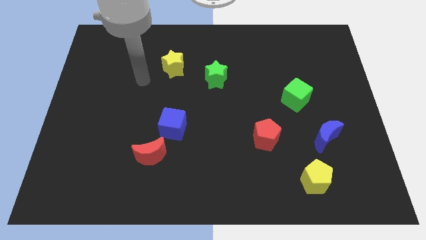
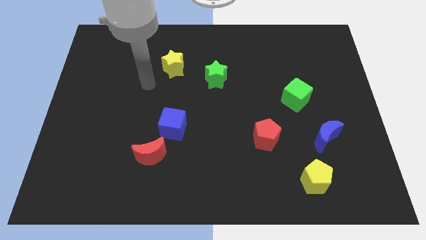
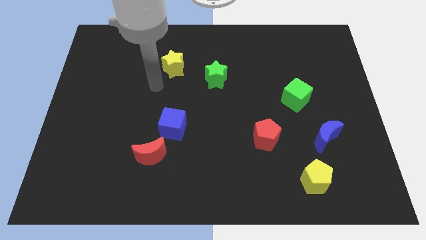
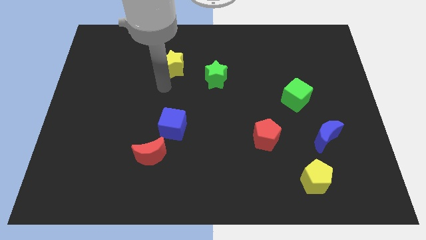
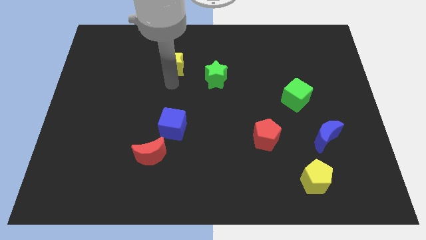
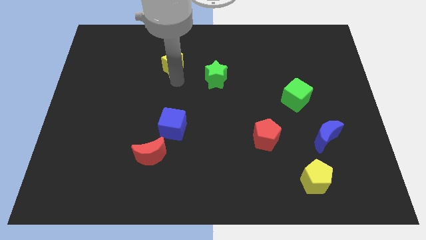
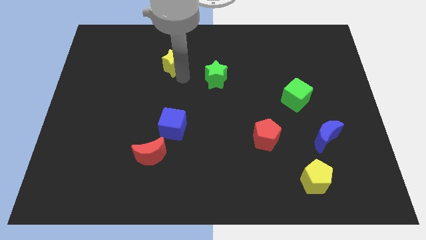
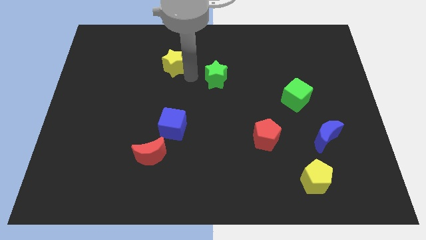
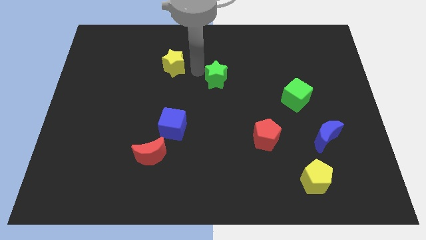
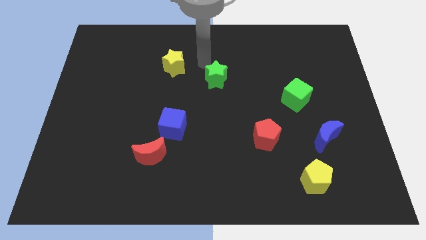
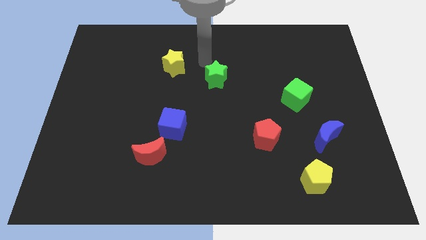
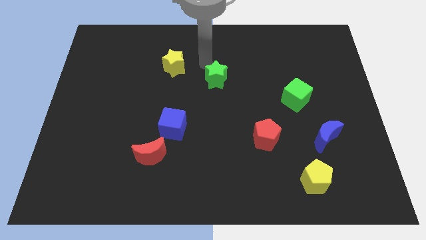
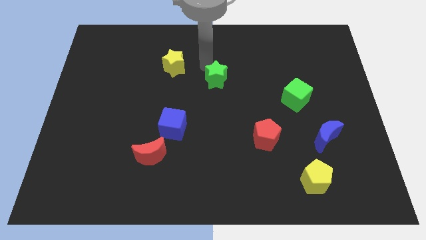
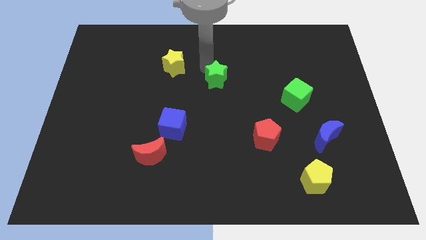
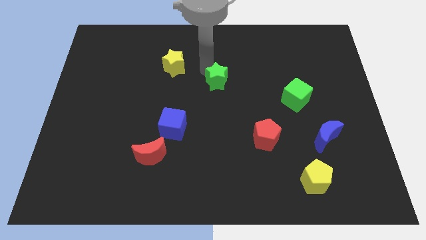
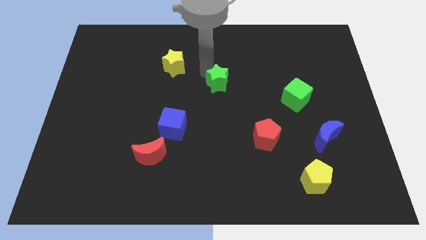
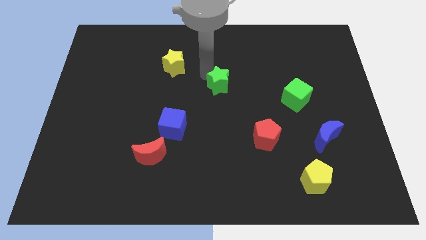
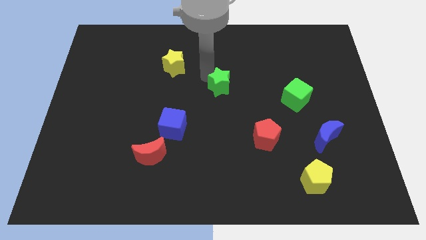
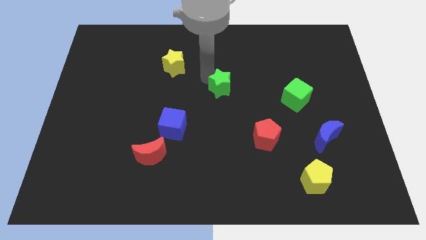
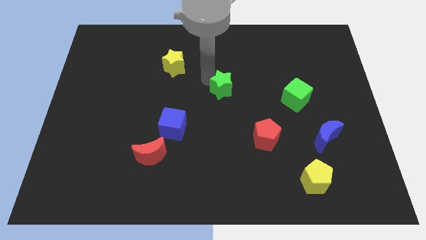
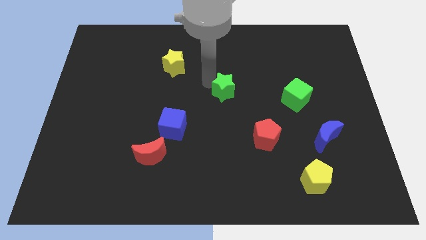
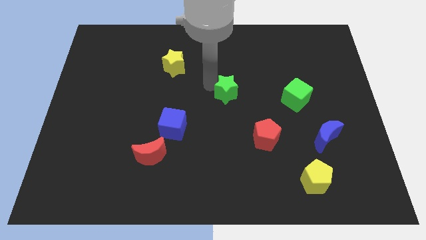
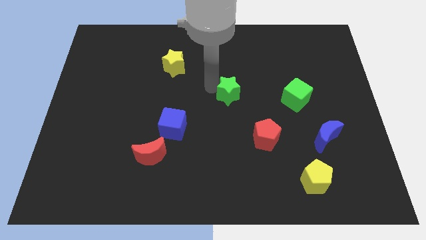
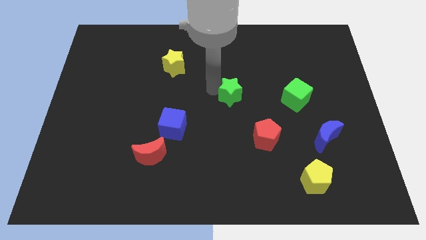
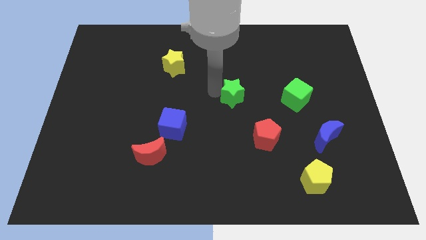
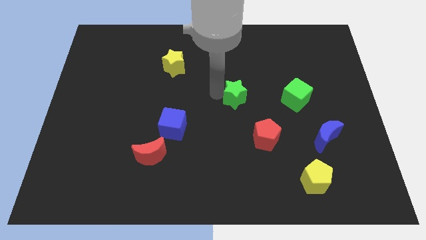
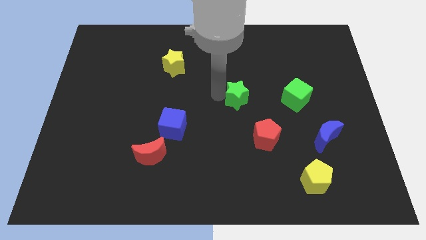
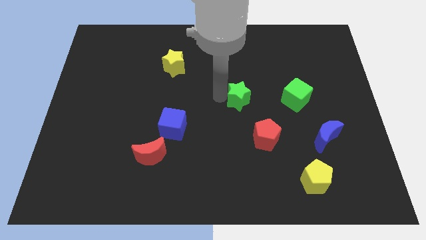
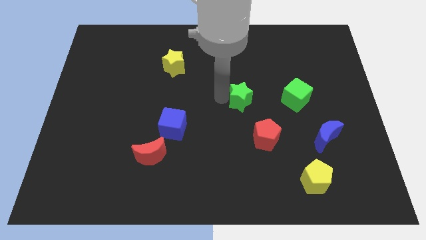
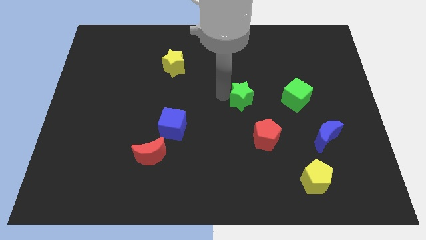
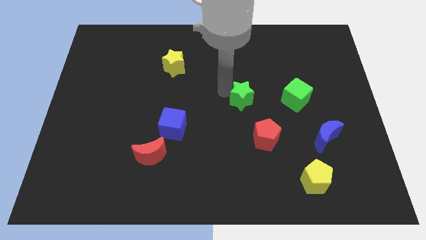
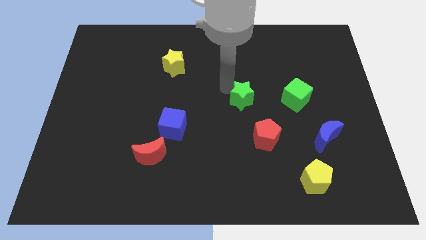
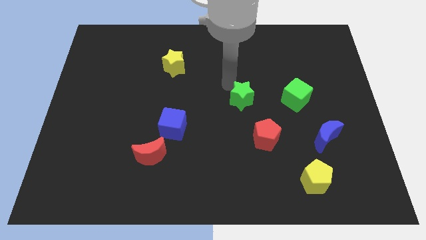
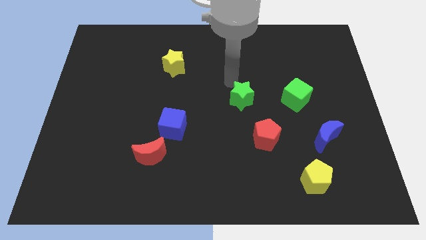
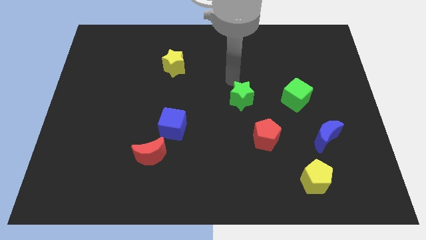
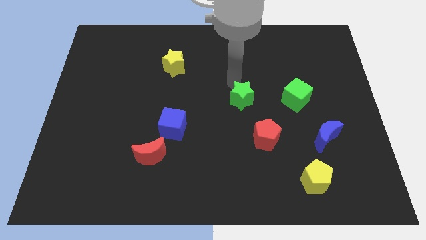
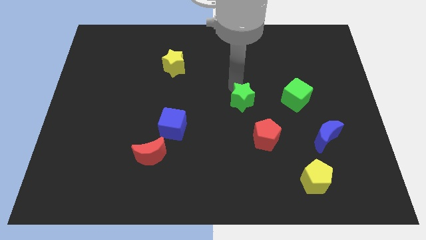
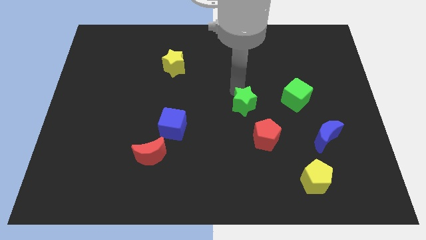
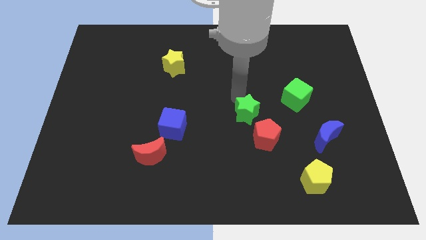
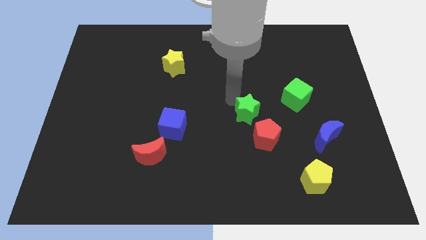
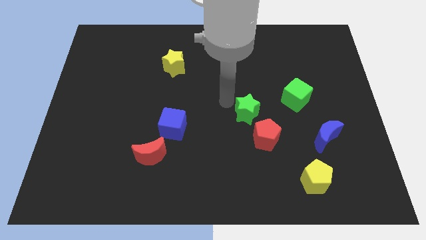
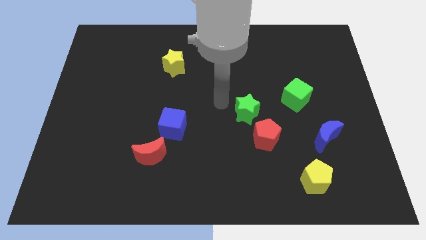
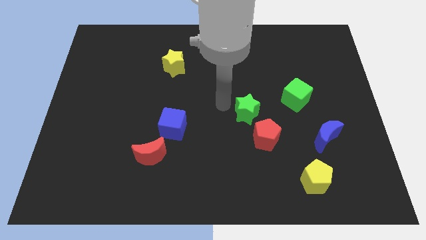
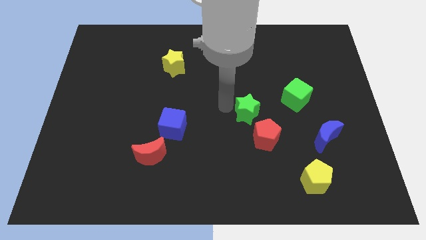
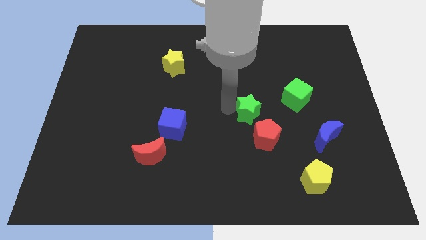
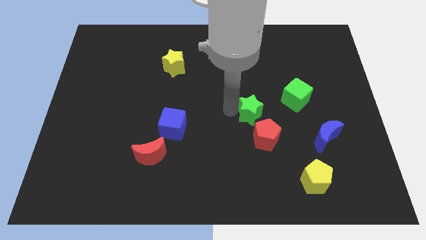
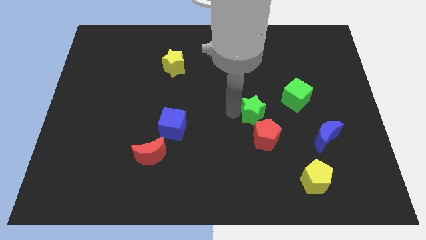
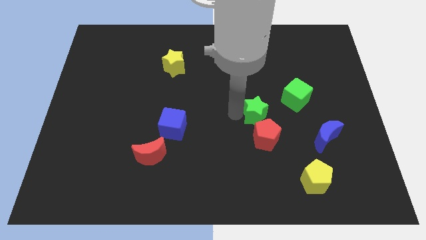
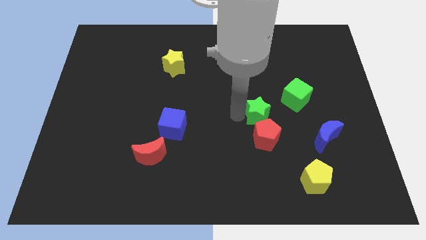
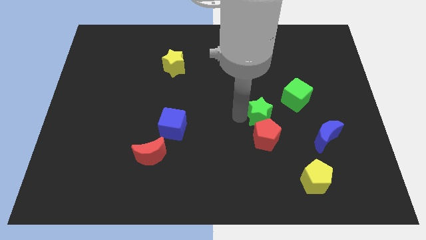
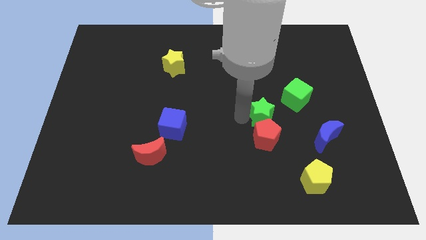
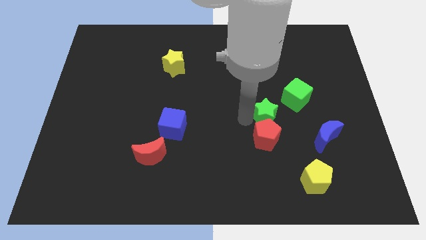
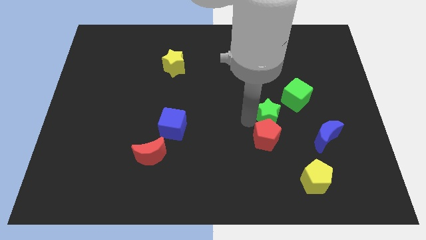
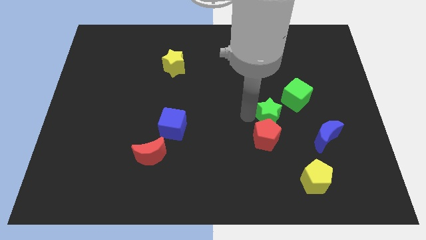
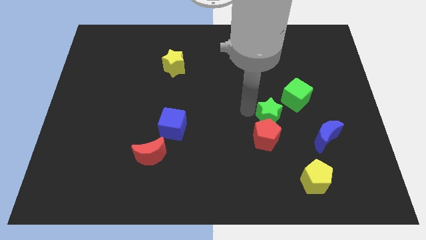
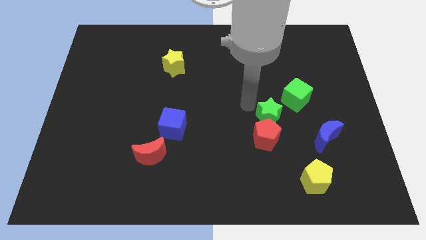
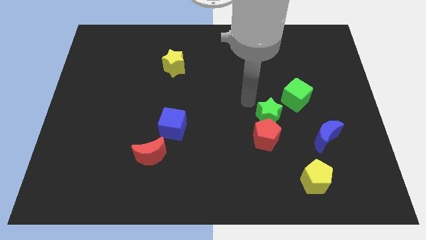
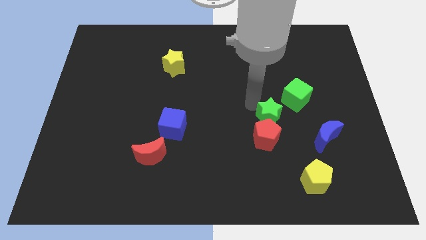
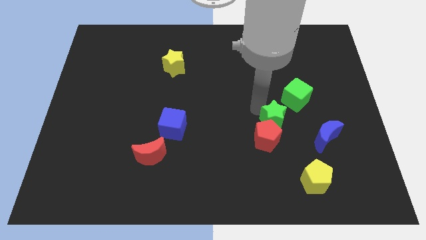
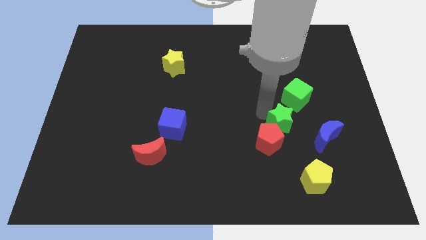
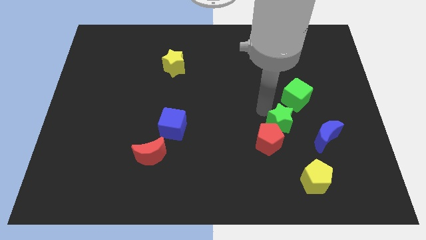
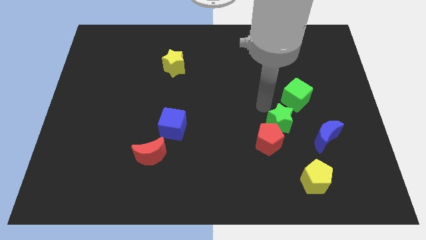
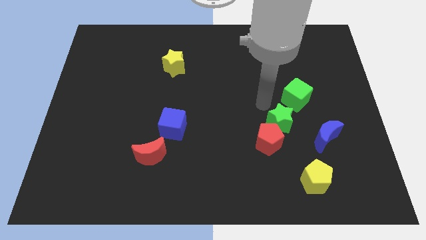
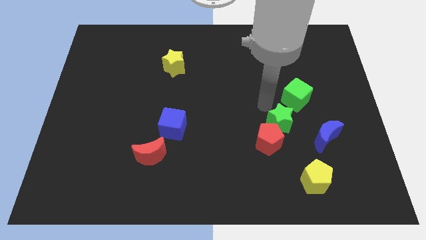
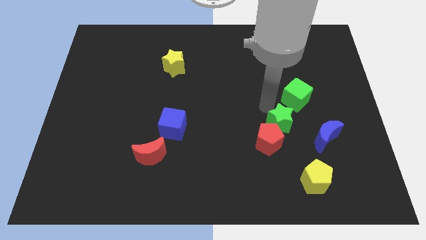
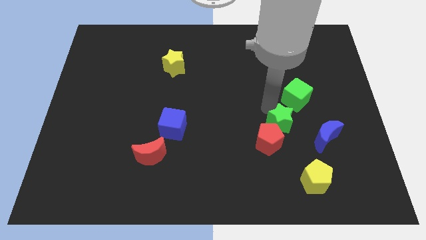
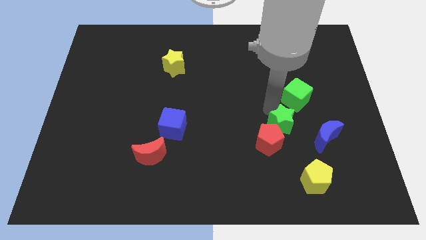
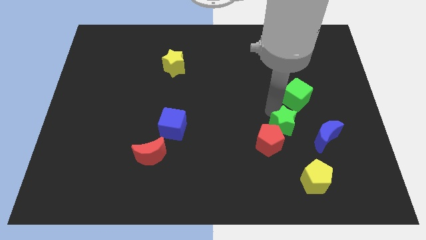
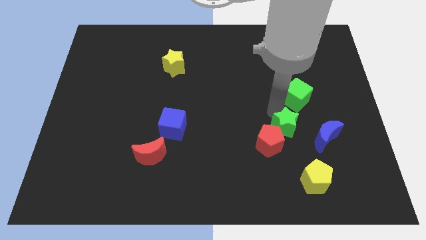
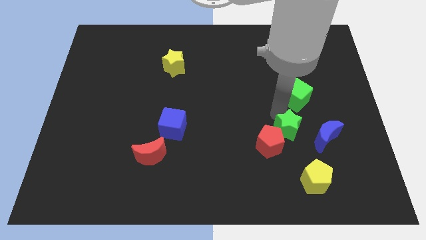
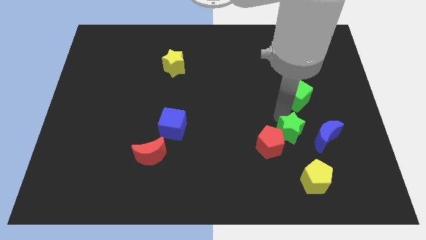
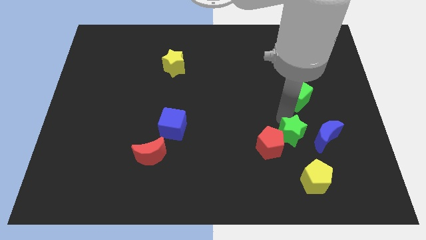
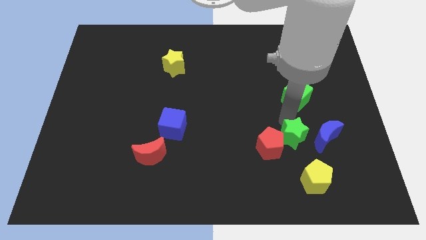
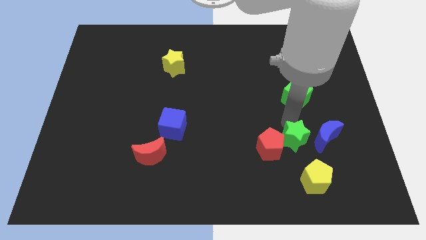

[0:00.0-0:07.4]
move the green star to the bottom left side of the blue moon

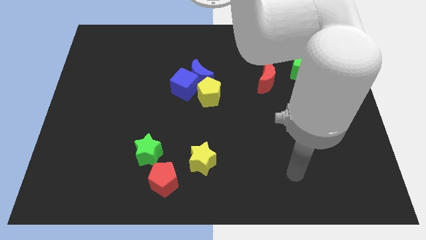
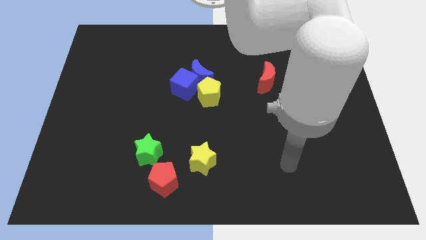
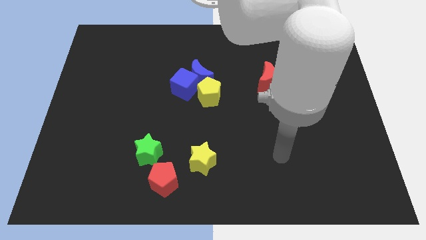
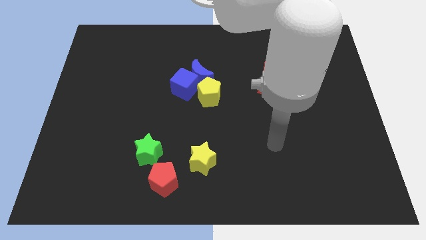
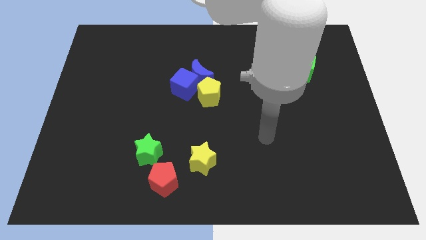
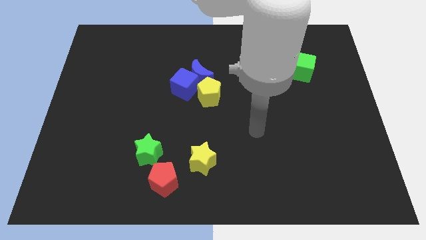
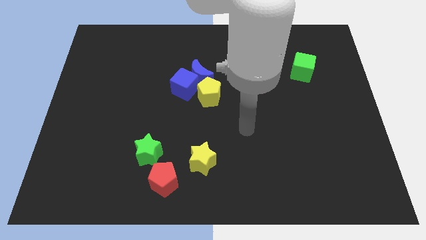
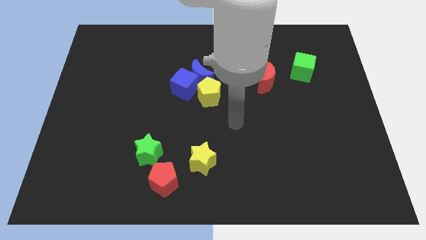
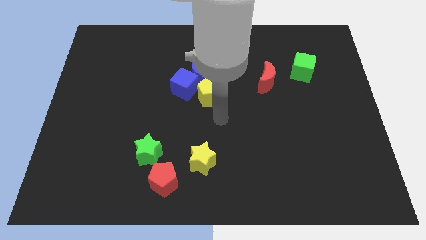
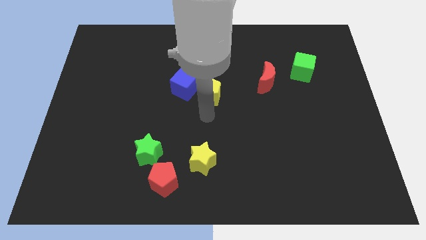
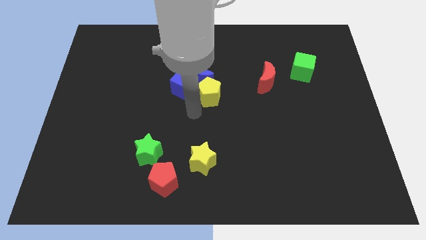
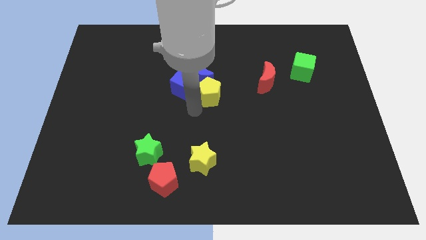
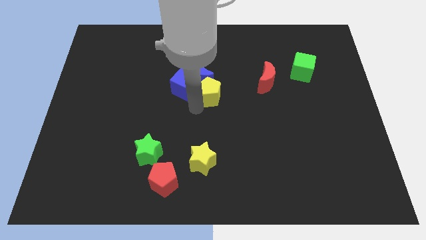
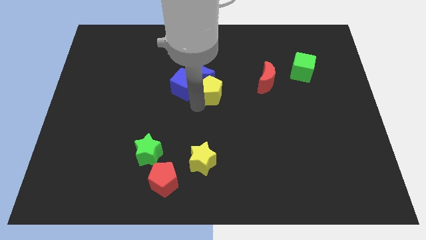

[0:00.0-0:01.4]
slide the yellow pentagon left of the red moon
